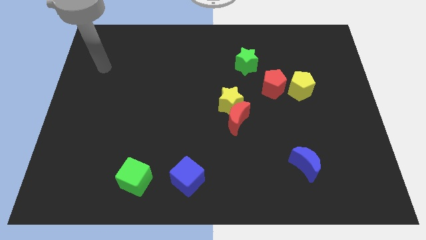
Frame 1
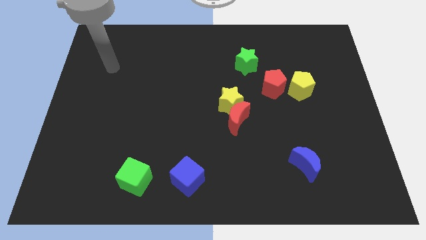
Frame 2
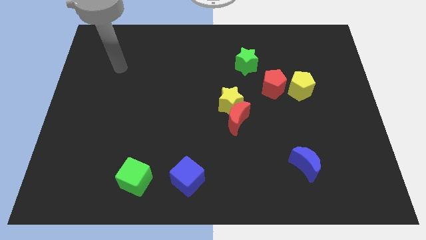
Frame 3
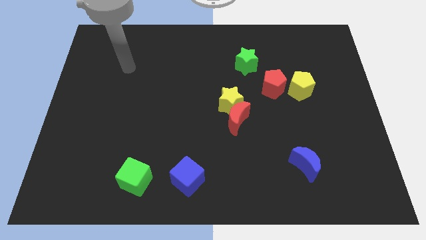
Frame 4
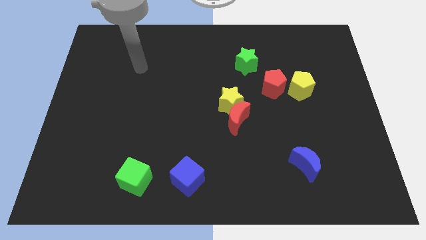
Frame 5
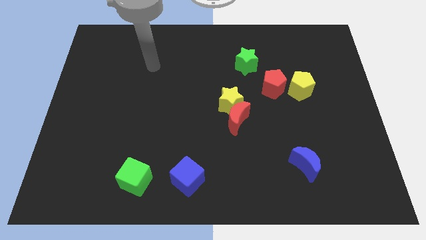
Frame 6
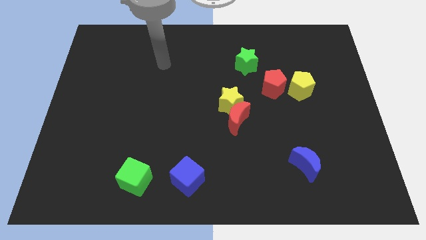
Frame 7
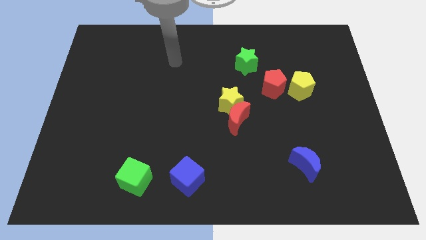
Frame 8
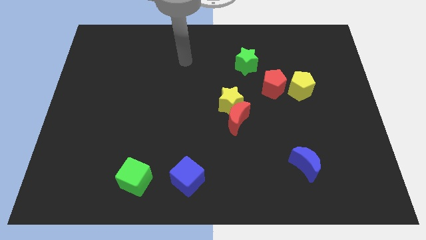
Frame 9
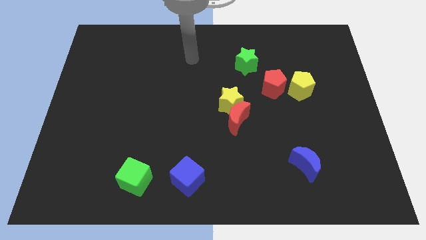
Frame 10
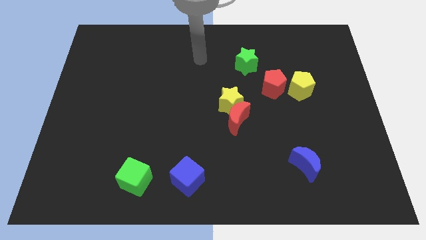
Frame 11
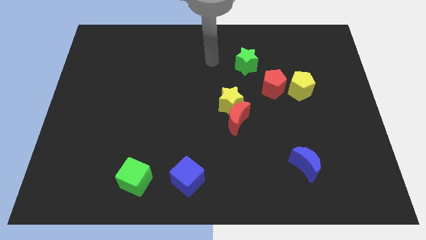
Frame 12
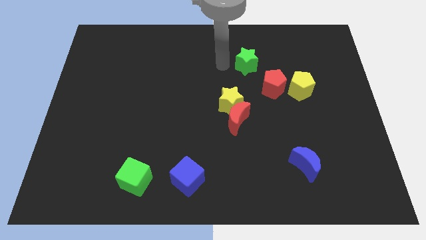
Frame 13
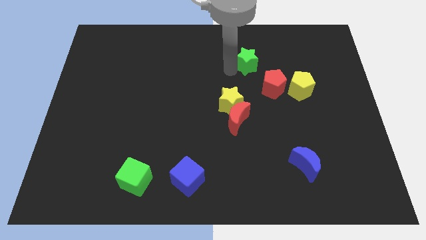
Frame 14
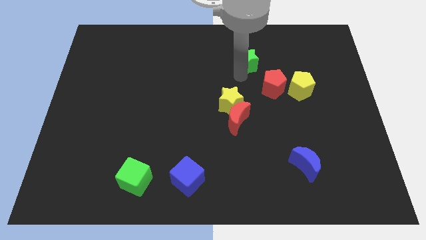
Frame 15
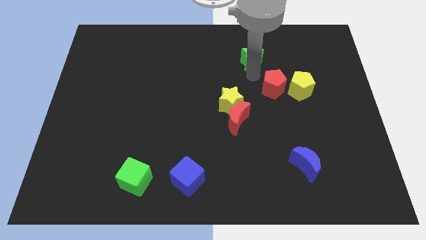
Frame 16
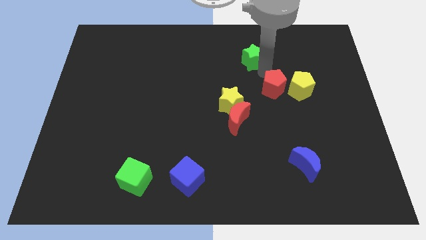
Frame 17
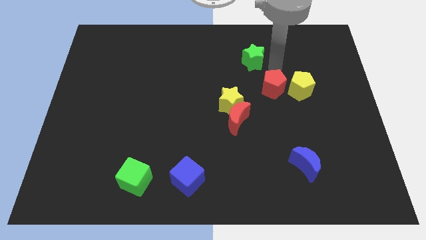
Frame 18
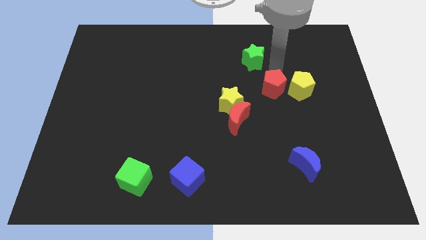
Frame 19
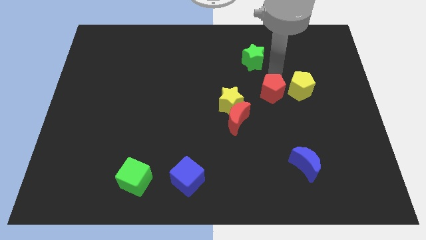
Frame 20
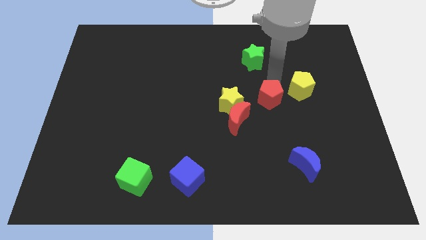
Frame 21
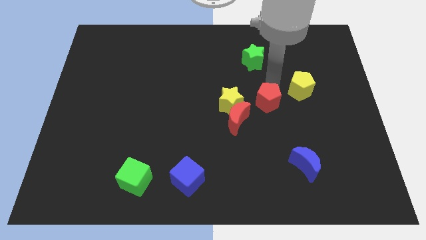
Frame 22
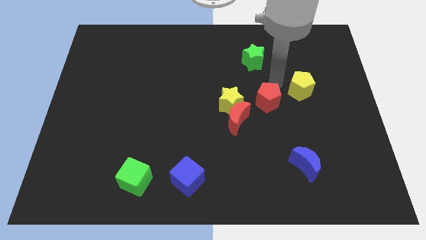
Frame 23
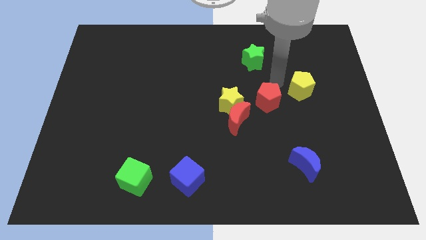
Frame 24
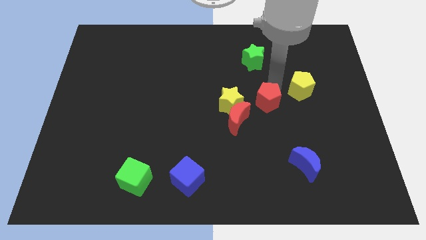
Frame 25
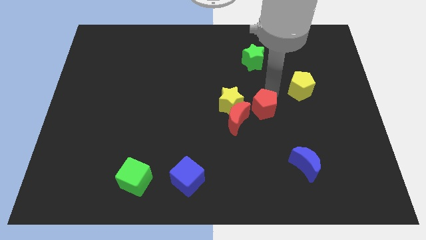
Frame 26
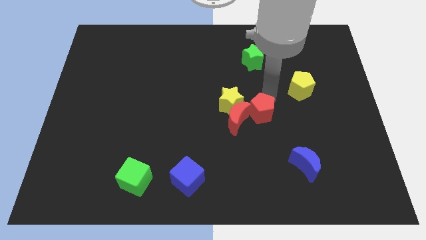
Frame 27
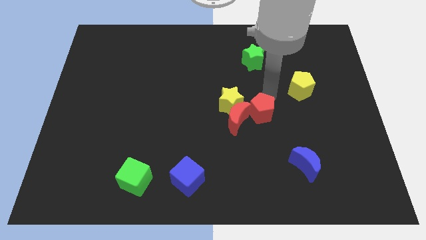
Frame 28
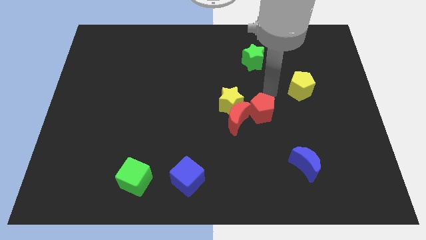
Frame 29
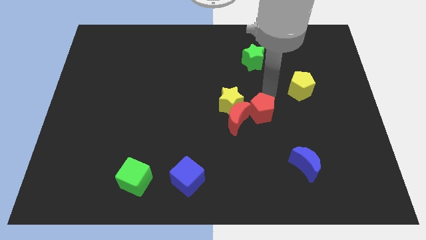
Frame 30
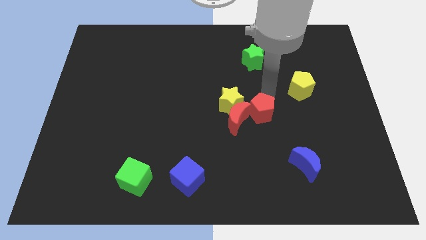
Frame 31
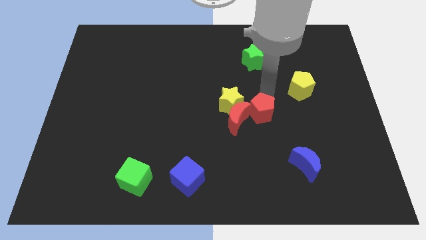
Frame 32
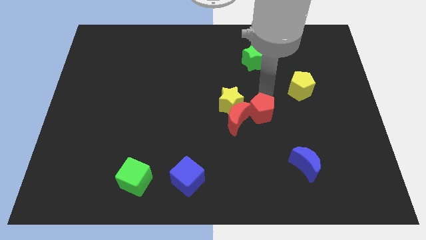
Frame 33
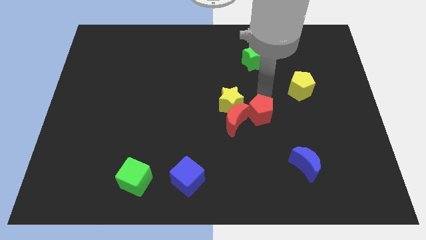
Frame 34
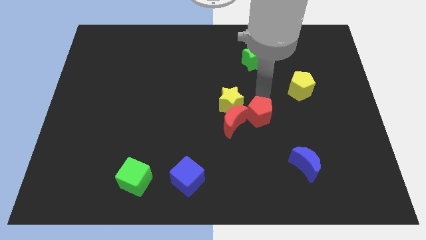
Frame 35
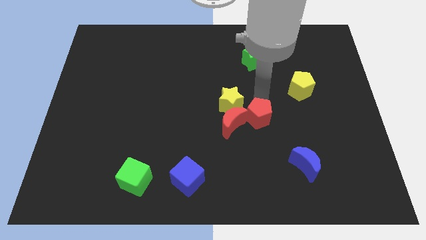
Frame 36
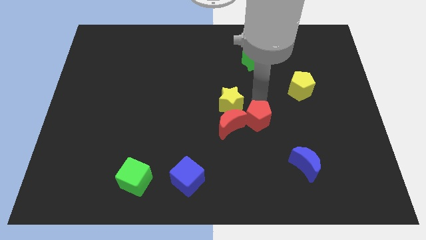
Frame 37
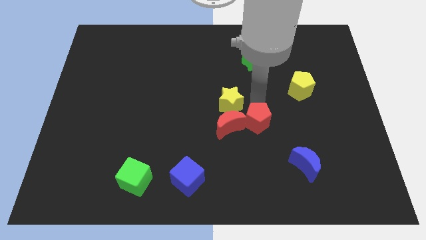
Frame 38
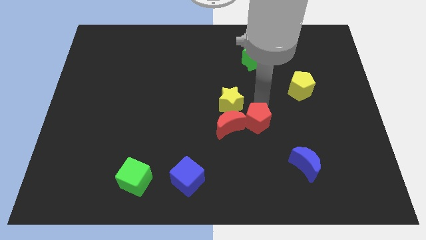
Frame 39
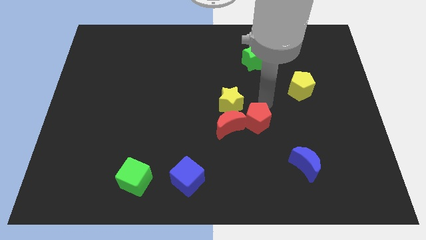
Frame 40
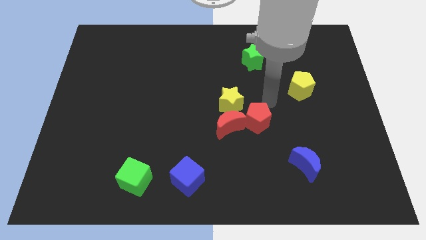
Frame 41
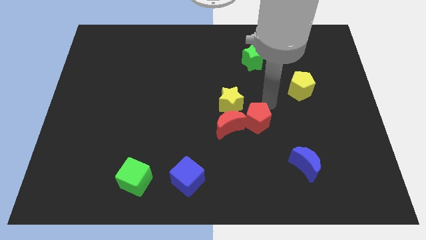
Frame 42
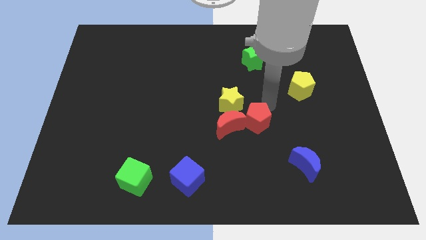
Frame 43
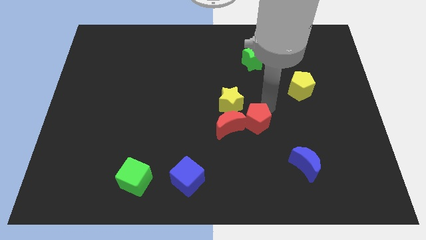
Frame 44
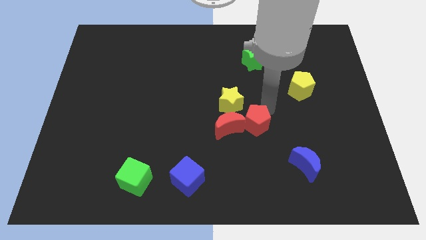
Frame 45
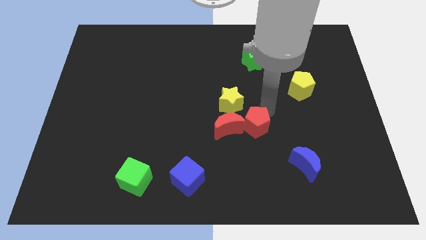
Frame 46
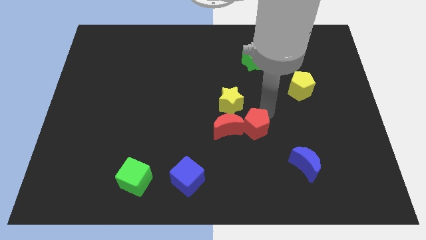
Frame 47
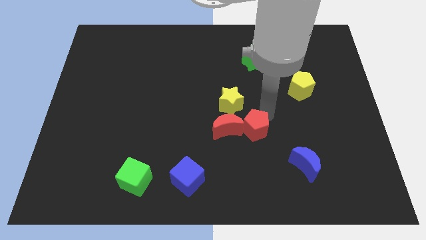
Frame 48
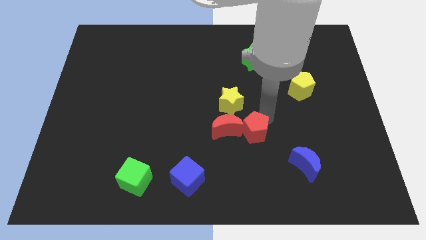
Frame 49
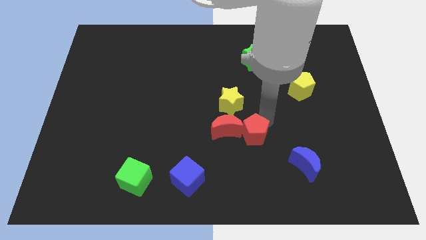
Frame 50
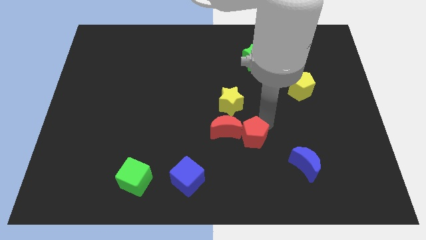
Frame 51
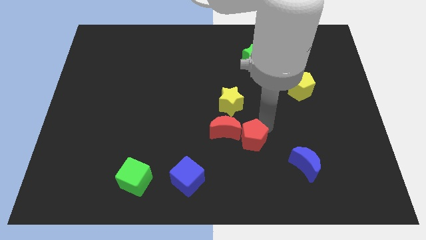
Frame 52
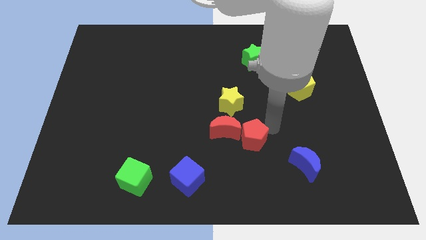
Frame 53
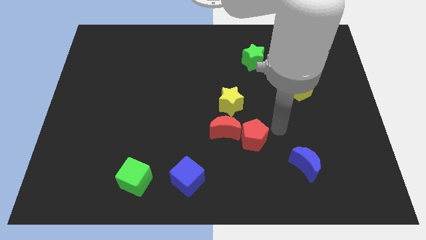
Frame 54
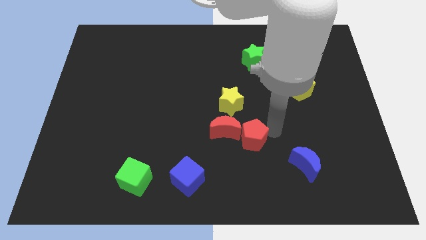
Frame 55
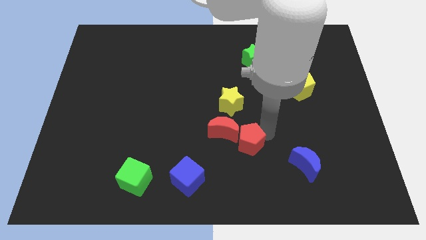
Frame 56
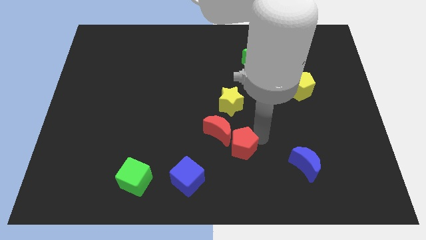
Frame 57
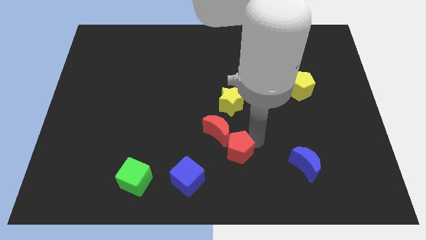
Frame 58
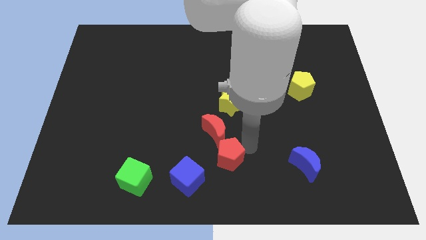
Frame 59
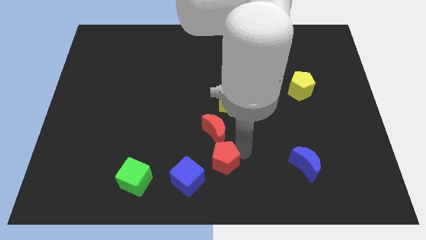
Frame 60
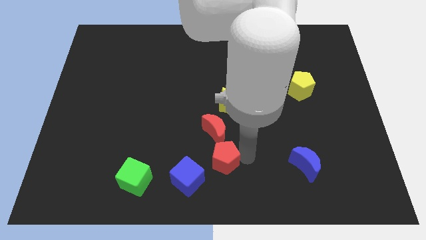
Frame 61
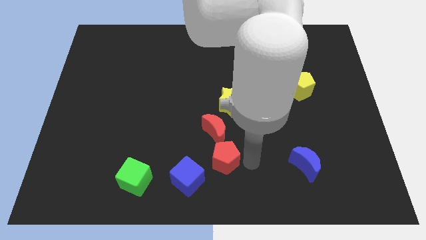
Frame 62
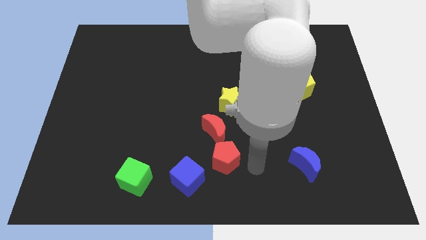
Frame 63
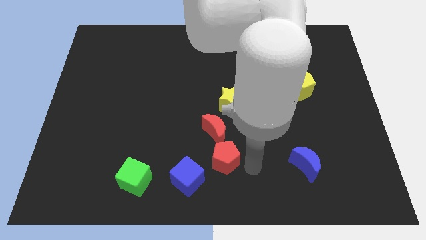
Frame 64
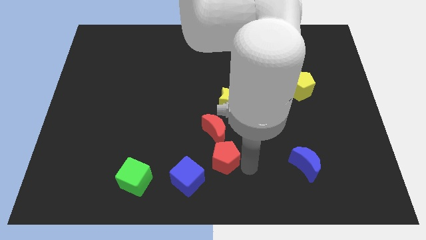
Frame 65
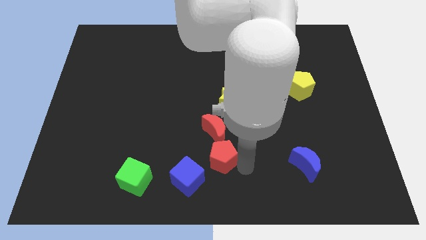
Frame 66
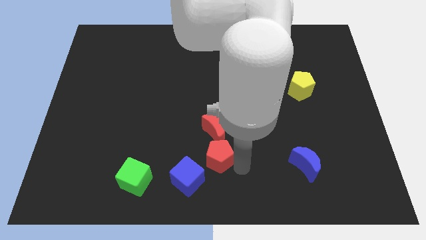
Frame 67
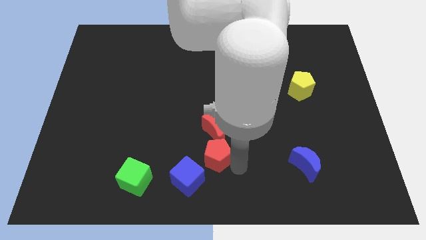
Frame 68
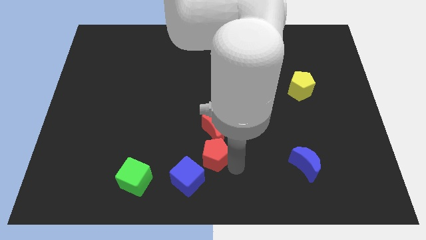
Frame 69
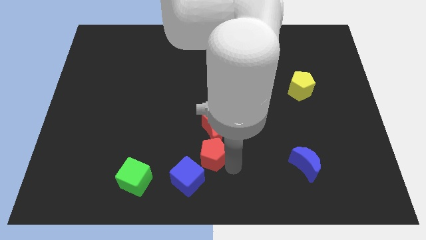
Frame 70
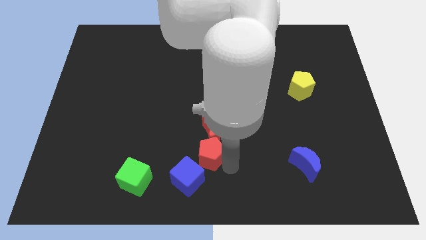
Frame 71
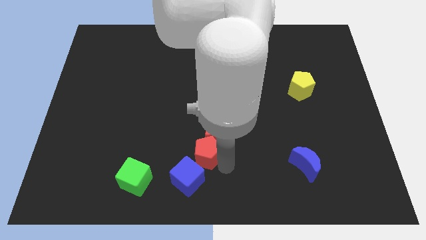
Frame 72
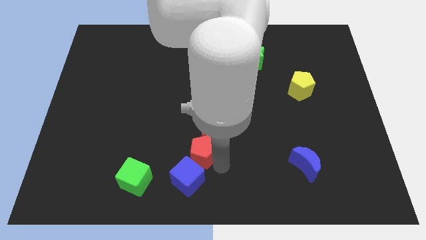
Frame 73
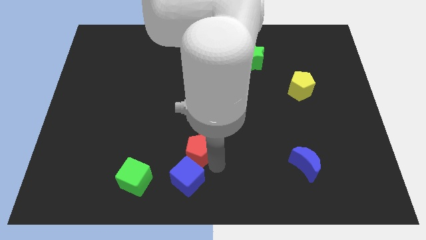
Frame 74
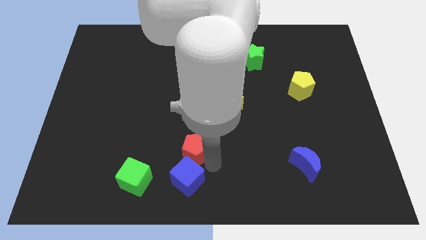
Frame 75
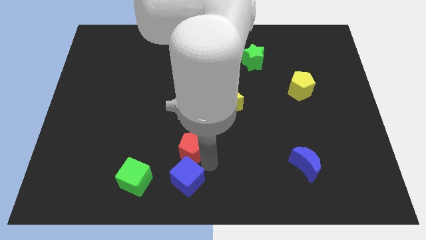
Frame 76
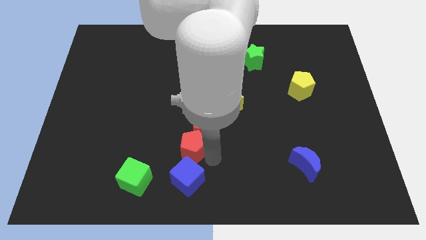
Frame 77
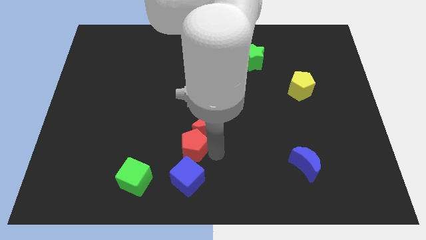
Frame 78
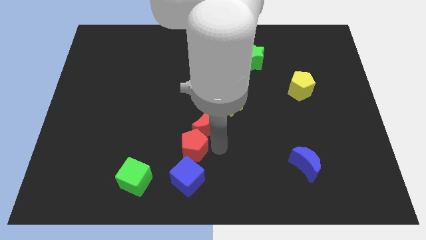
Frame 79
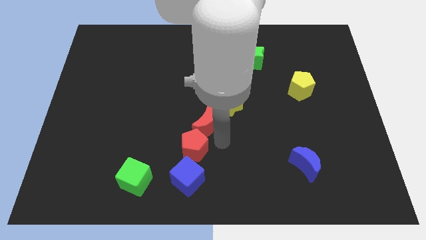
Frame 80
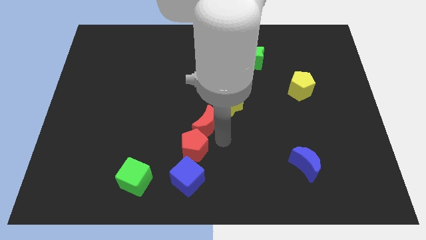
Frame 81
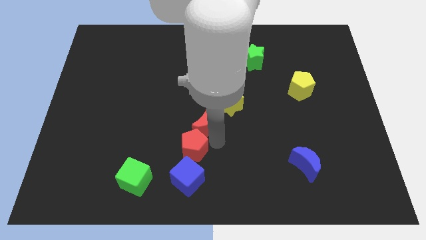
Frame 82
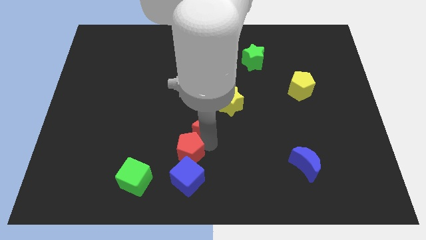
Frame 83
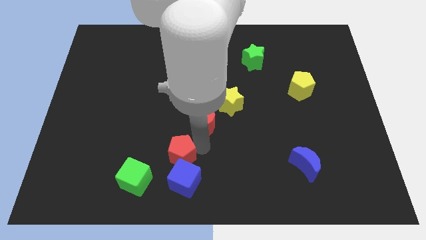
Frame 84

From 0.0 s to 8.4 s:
slide the red pentagon diagonally up and to the right of the green cube
